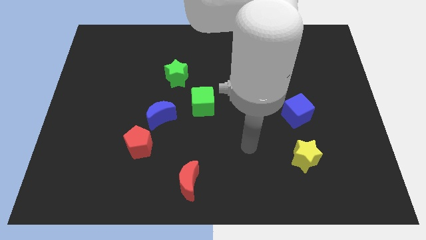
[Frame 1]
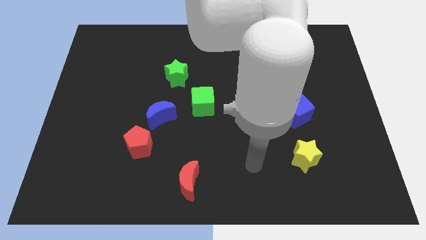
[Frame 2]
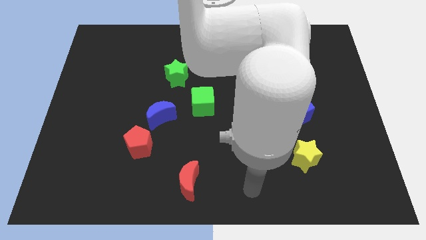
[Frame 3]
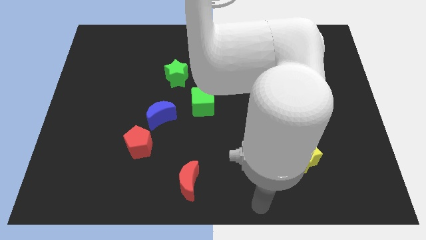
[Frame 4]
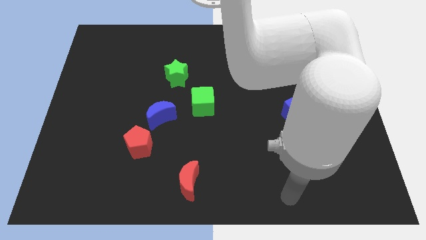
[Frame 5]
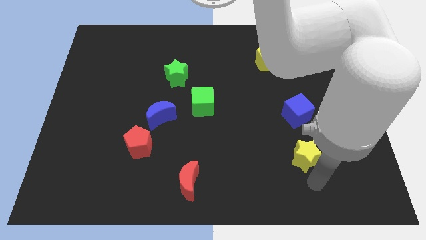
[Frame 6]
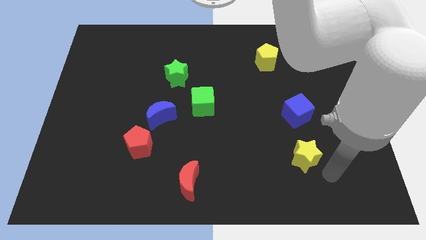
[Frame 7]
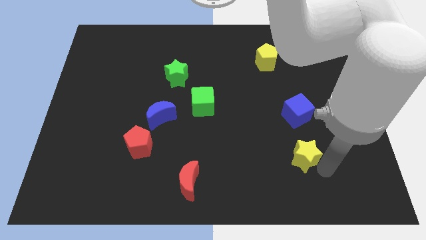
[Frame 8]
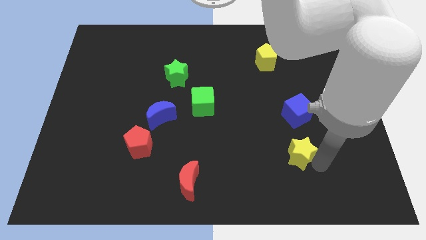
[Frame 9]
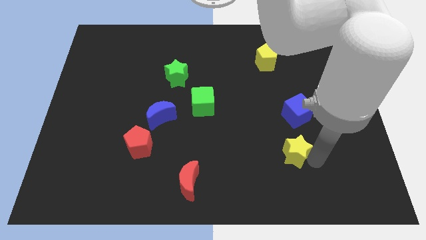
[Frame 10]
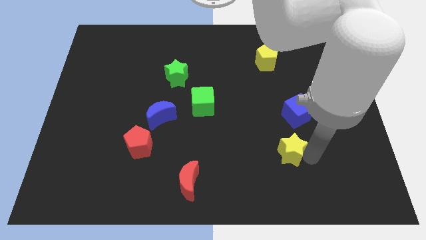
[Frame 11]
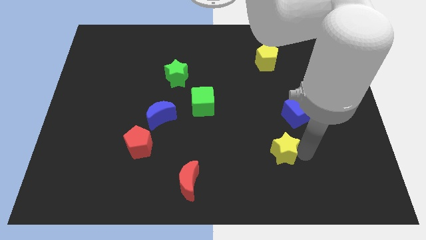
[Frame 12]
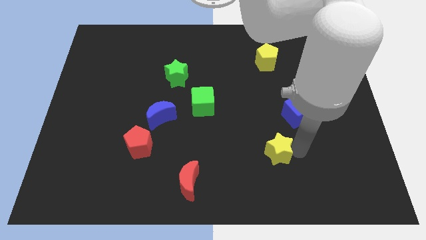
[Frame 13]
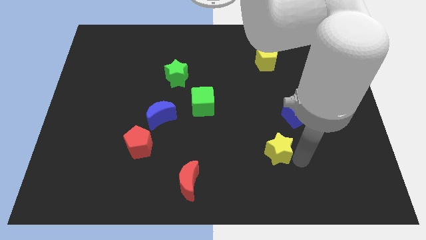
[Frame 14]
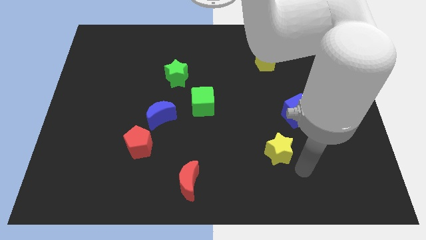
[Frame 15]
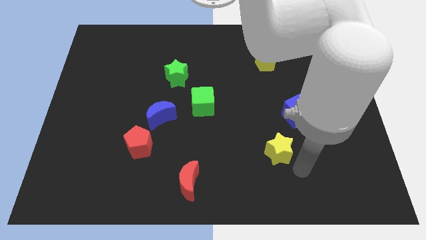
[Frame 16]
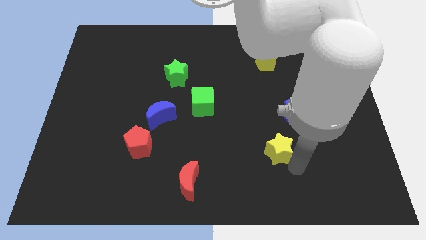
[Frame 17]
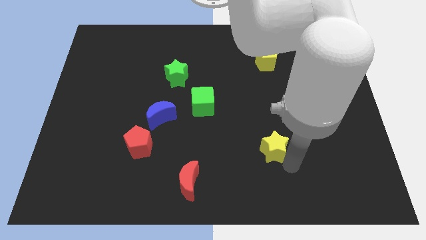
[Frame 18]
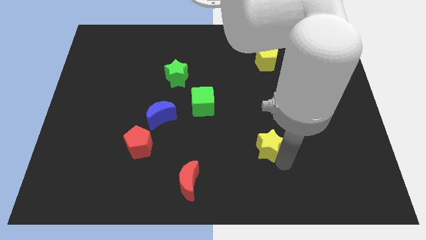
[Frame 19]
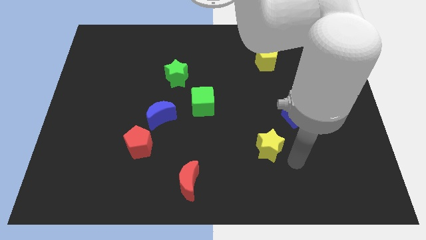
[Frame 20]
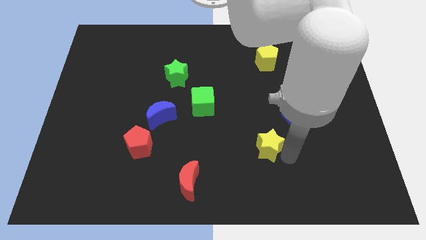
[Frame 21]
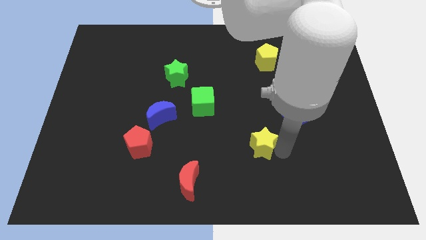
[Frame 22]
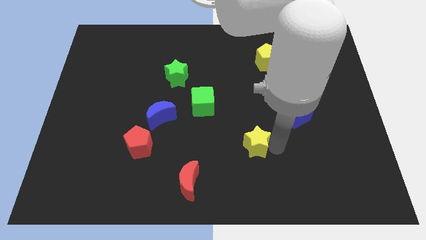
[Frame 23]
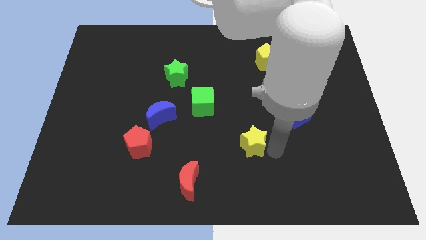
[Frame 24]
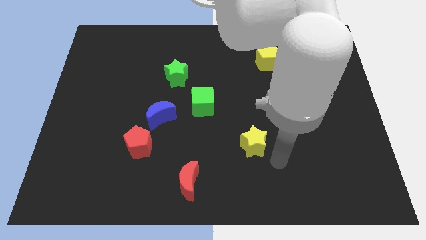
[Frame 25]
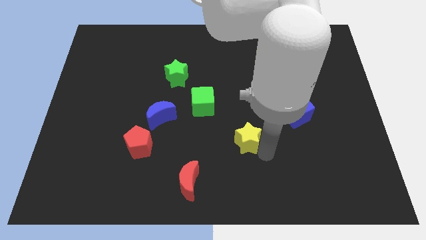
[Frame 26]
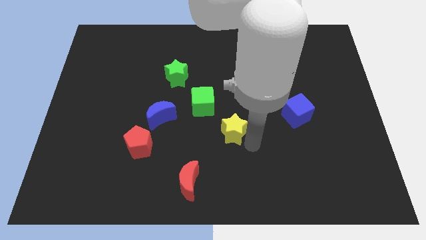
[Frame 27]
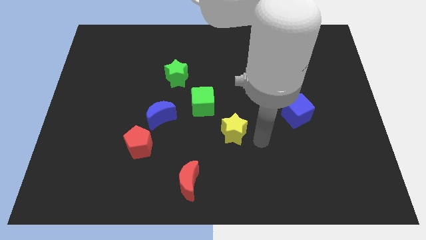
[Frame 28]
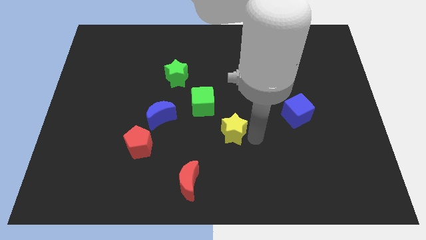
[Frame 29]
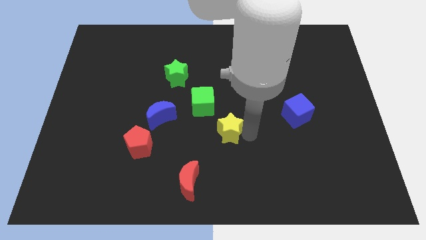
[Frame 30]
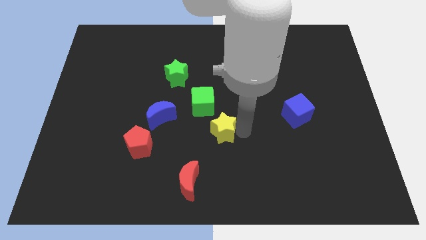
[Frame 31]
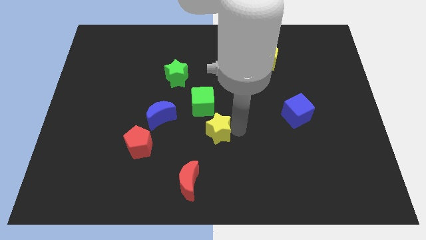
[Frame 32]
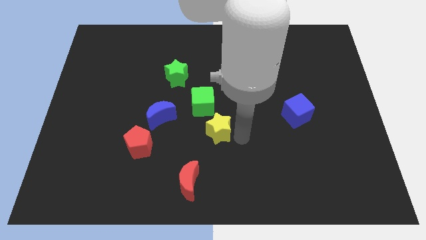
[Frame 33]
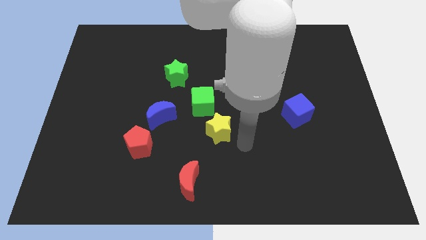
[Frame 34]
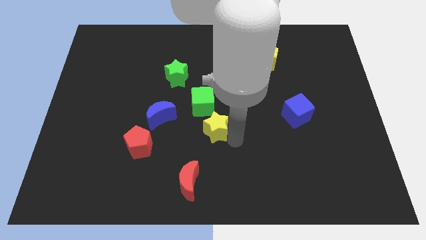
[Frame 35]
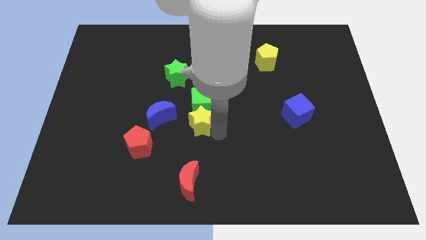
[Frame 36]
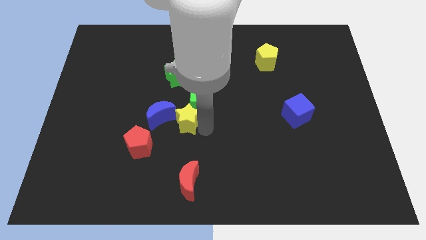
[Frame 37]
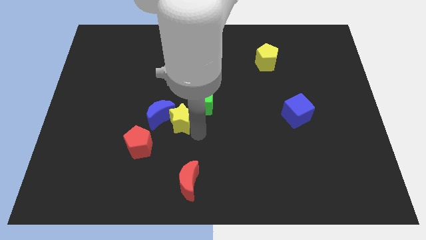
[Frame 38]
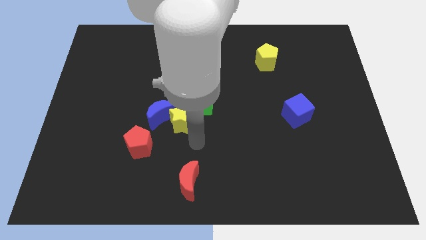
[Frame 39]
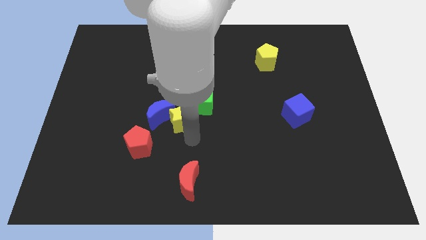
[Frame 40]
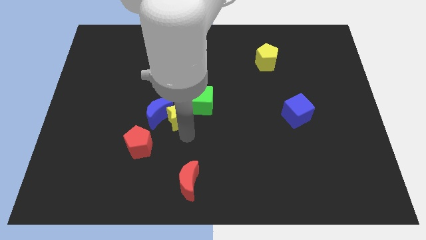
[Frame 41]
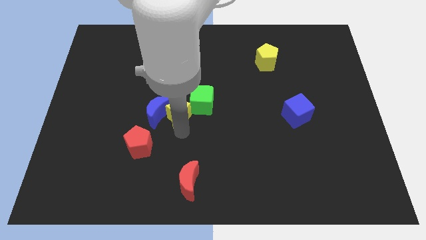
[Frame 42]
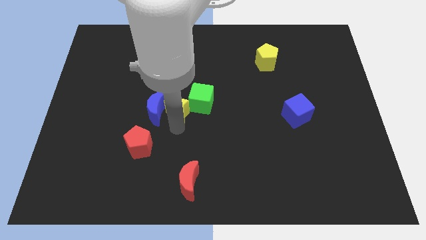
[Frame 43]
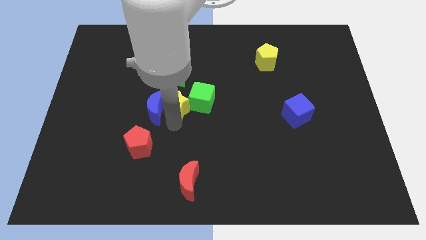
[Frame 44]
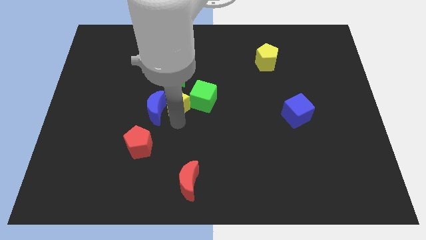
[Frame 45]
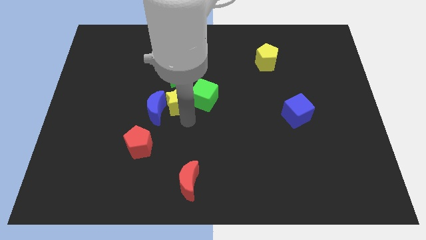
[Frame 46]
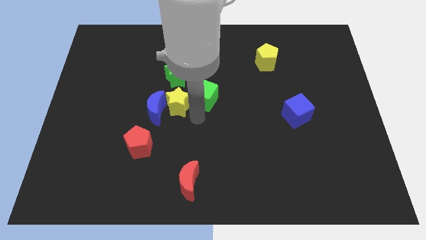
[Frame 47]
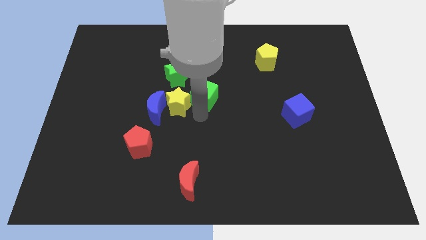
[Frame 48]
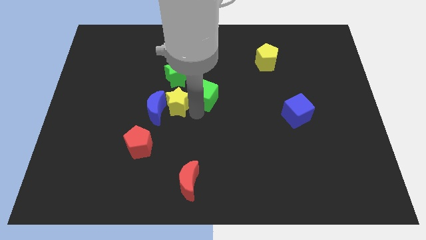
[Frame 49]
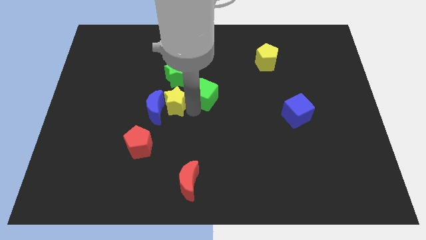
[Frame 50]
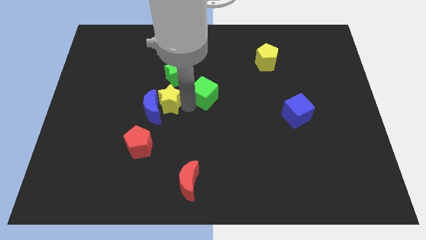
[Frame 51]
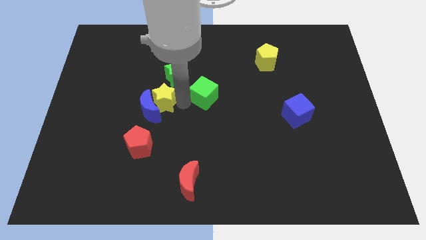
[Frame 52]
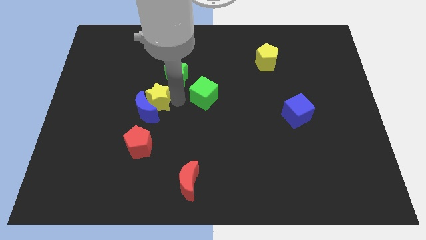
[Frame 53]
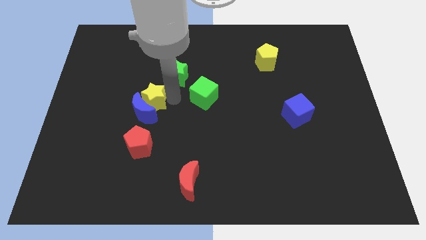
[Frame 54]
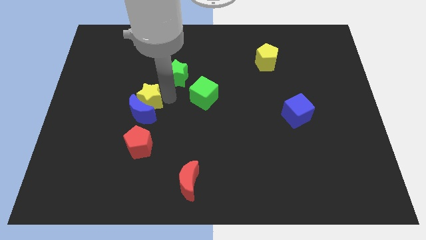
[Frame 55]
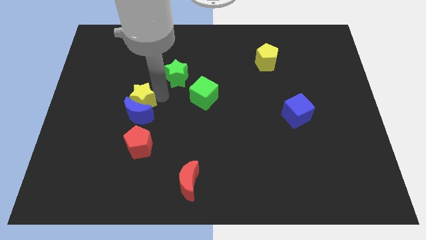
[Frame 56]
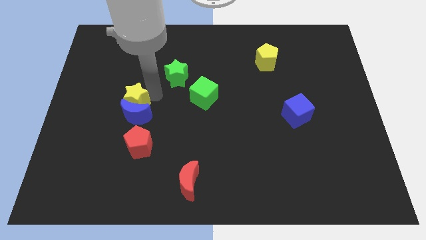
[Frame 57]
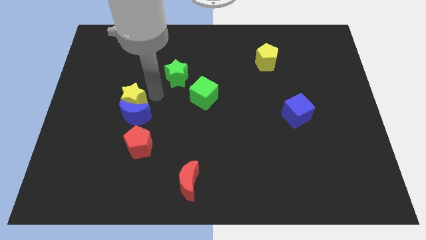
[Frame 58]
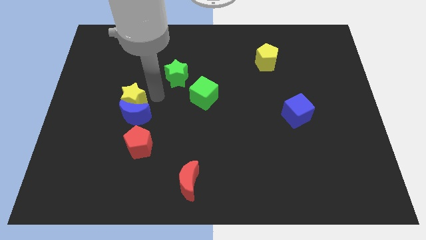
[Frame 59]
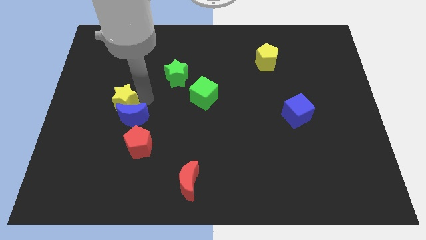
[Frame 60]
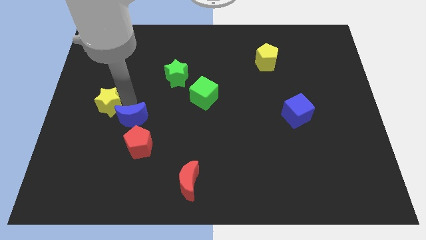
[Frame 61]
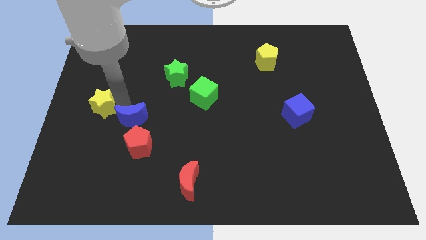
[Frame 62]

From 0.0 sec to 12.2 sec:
slide the yellow star to the left side of the board
